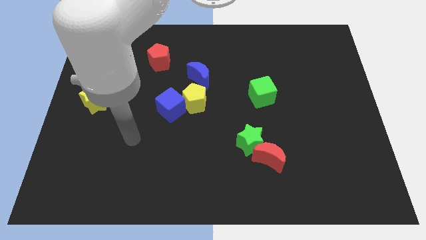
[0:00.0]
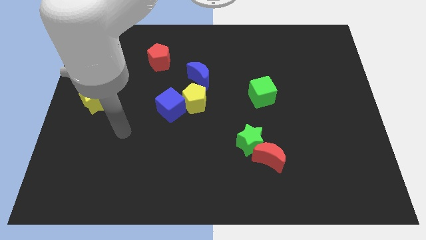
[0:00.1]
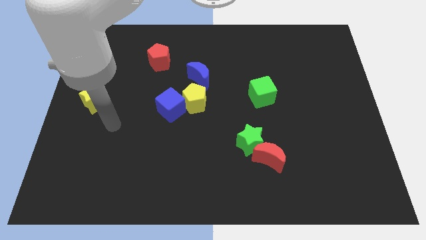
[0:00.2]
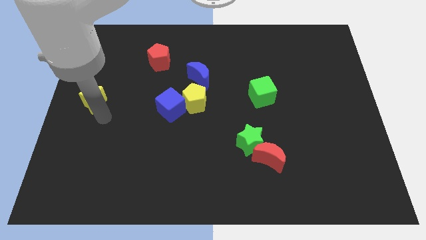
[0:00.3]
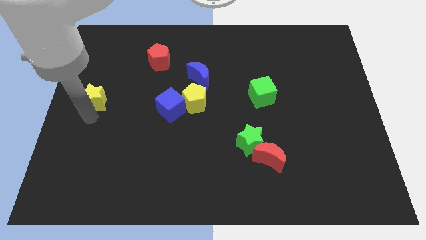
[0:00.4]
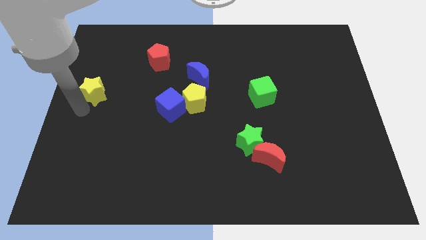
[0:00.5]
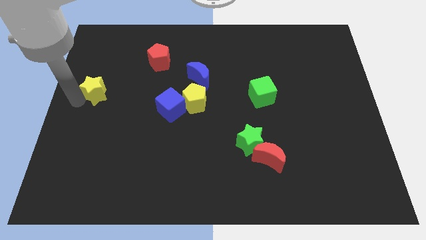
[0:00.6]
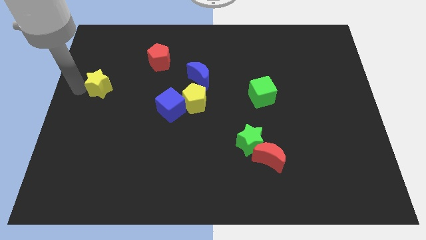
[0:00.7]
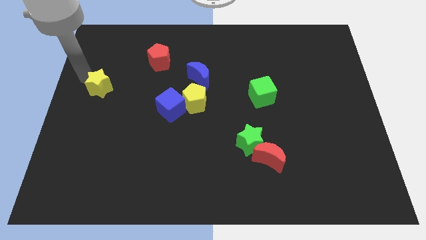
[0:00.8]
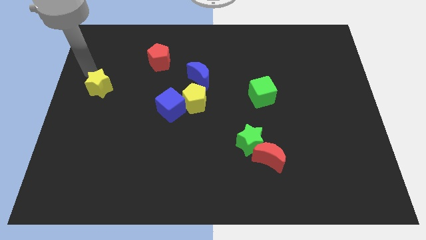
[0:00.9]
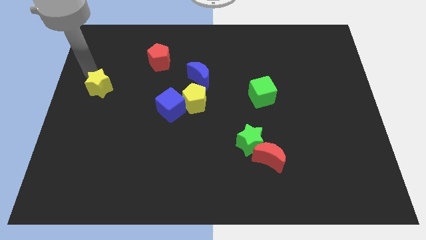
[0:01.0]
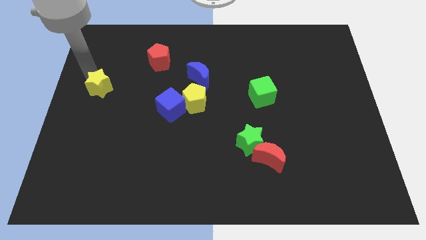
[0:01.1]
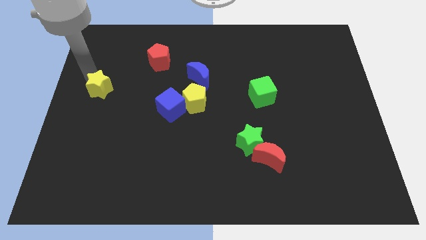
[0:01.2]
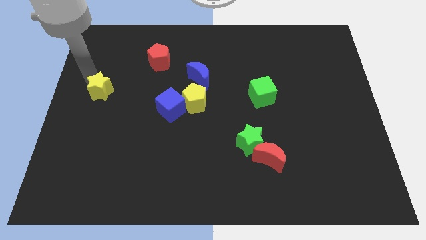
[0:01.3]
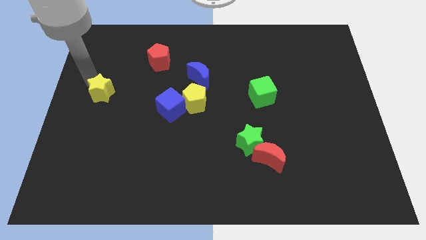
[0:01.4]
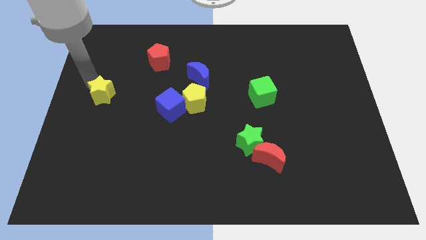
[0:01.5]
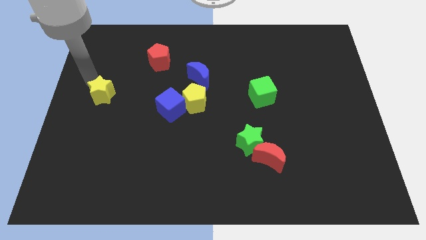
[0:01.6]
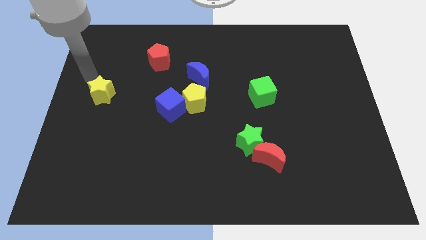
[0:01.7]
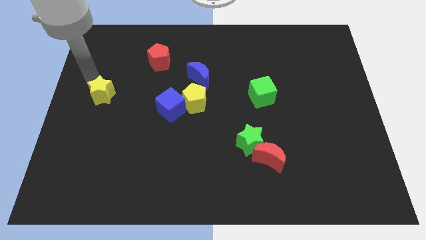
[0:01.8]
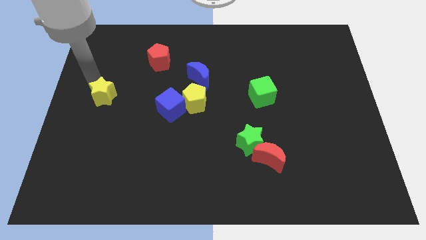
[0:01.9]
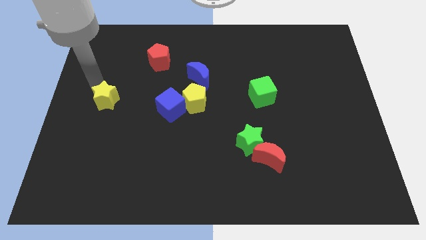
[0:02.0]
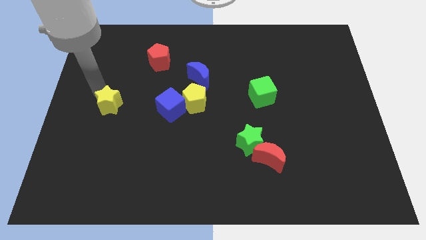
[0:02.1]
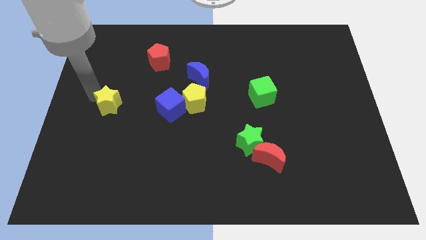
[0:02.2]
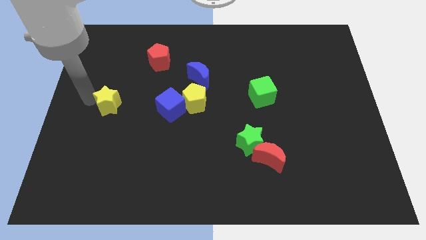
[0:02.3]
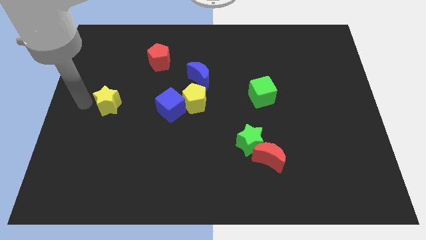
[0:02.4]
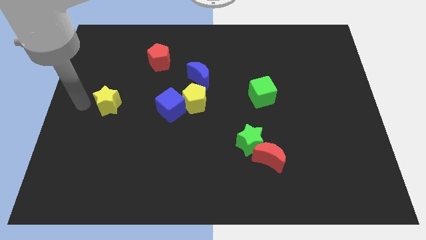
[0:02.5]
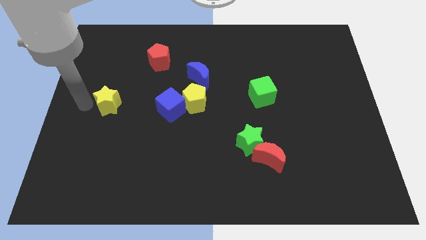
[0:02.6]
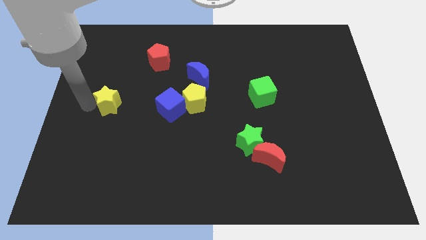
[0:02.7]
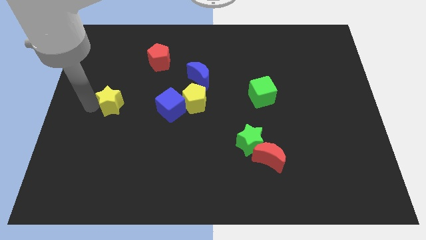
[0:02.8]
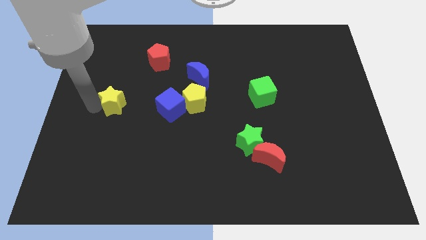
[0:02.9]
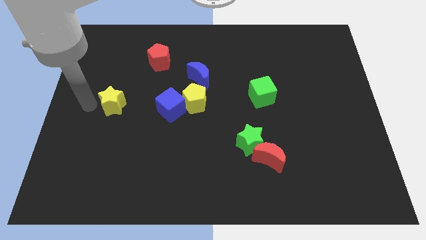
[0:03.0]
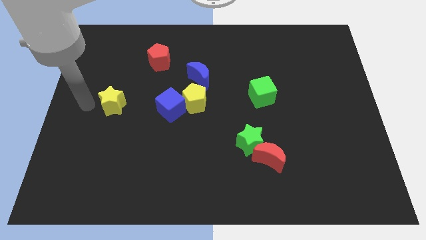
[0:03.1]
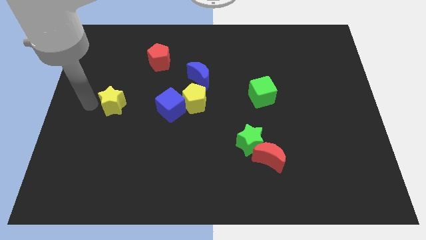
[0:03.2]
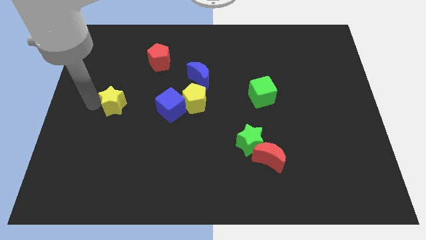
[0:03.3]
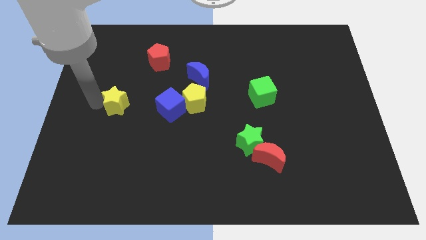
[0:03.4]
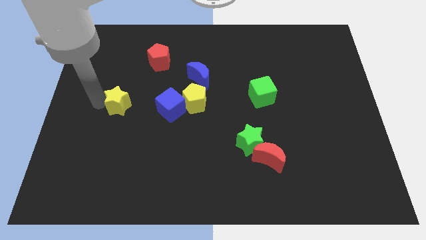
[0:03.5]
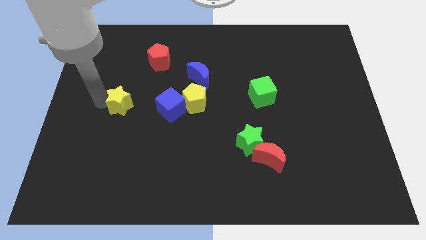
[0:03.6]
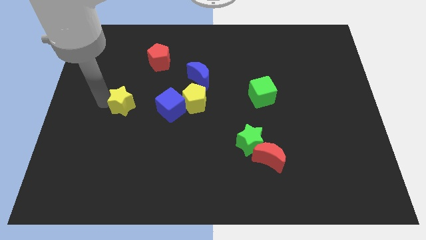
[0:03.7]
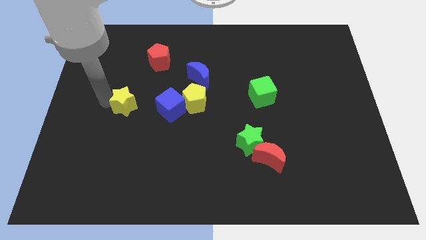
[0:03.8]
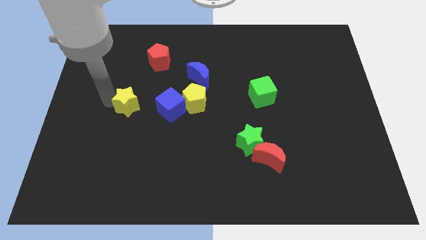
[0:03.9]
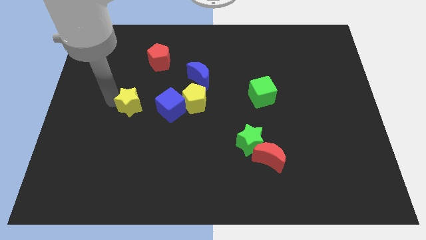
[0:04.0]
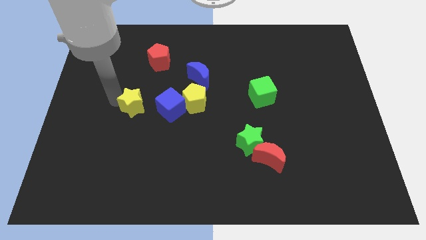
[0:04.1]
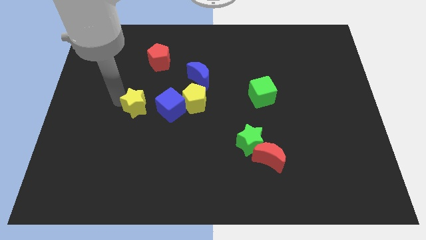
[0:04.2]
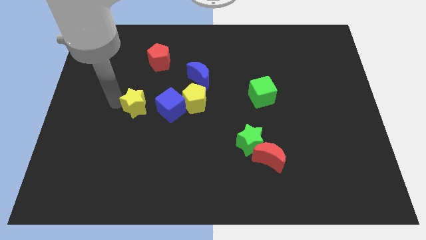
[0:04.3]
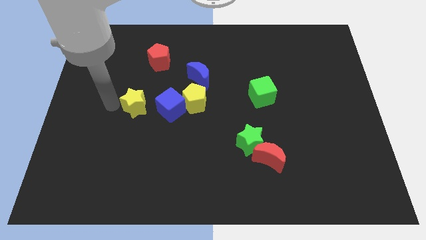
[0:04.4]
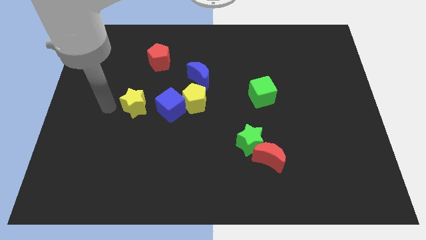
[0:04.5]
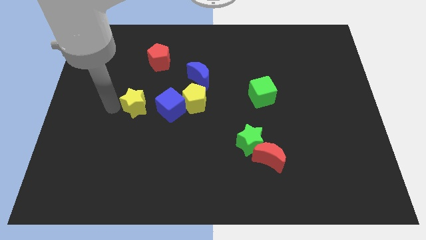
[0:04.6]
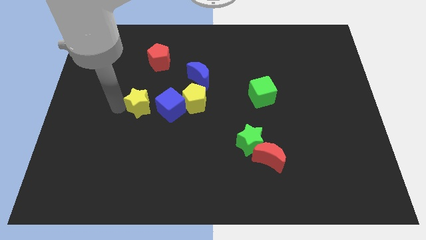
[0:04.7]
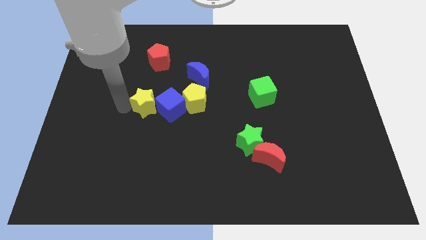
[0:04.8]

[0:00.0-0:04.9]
slide the yellow star to the blue cube

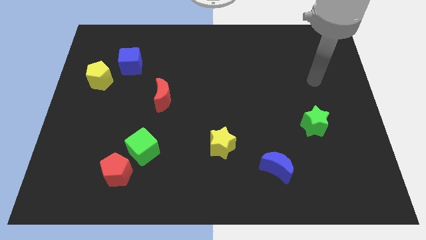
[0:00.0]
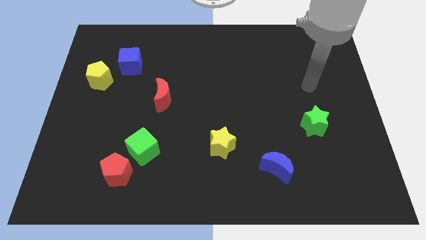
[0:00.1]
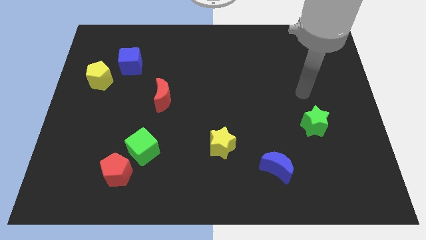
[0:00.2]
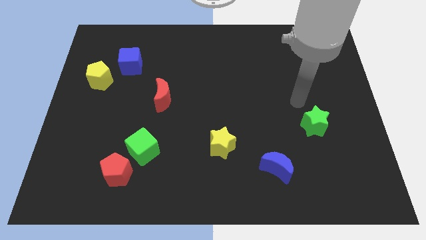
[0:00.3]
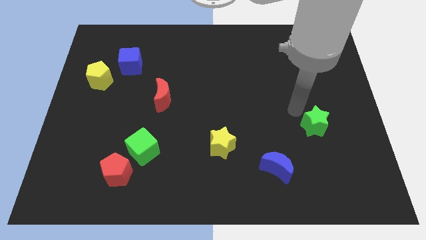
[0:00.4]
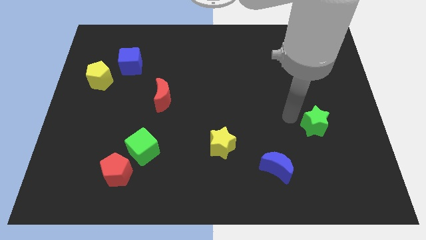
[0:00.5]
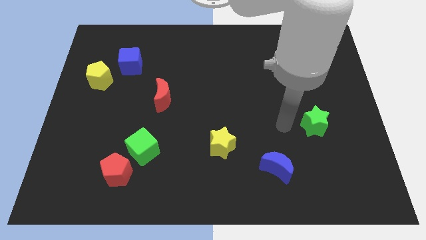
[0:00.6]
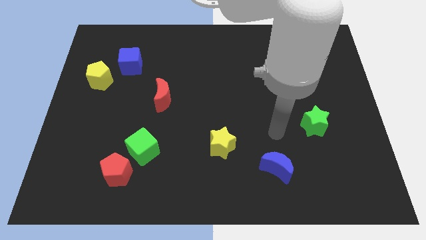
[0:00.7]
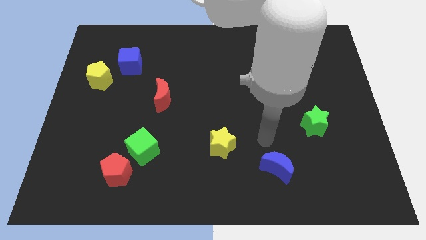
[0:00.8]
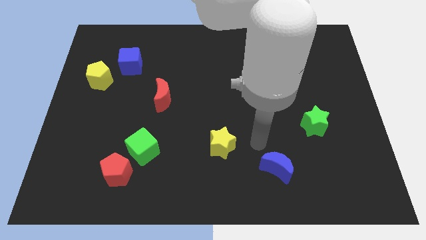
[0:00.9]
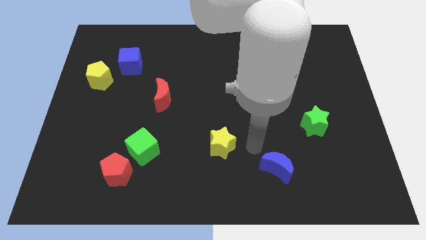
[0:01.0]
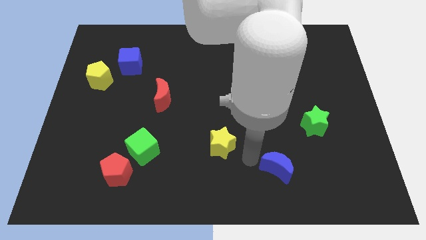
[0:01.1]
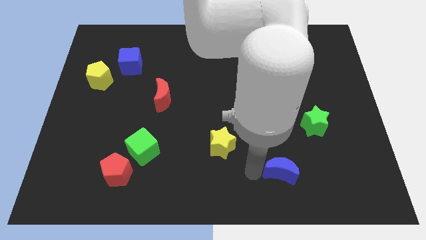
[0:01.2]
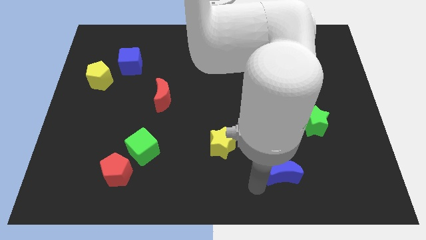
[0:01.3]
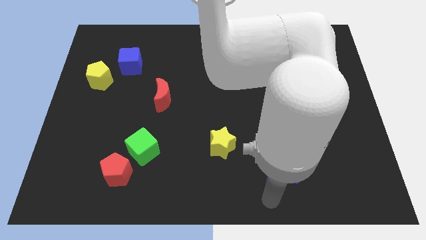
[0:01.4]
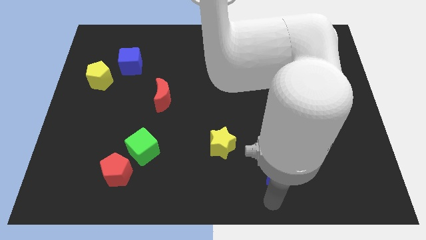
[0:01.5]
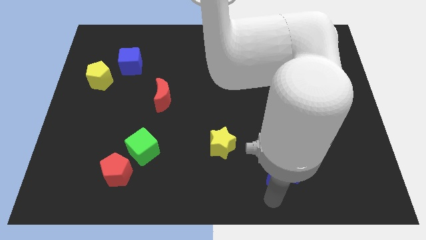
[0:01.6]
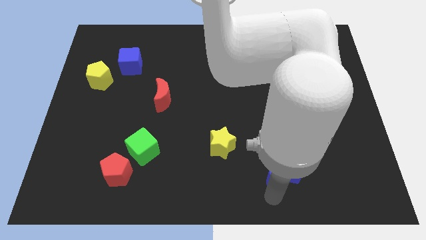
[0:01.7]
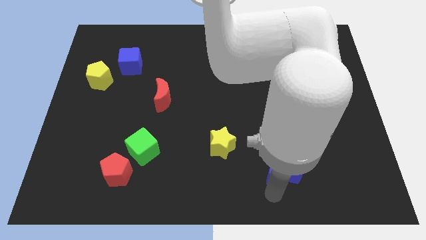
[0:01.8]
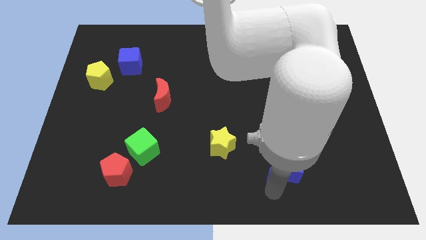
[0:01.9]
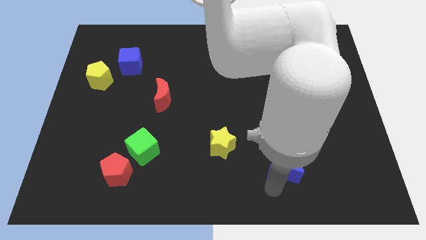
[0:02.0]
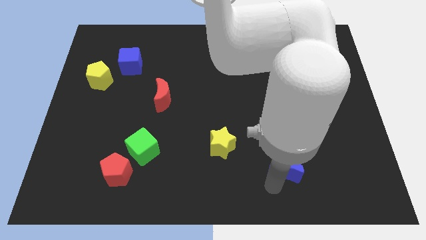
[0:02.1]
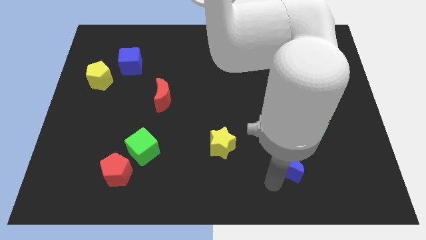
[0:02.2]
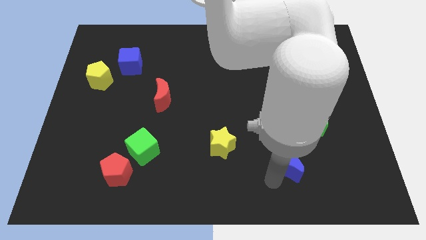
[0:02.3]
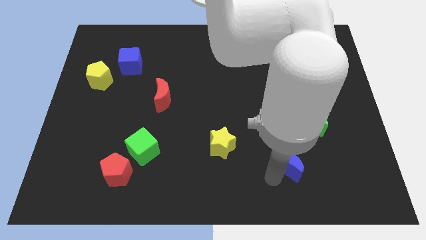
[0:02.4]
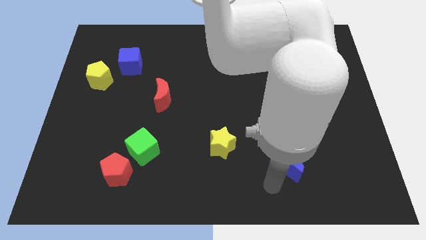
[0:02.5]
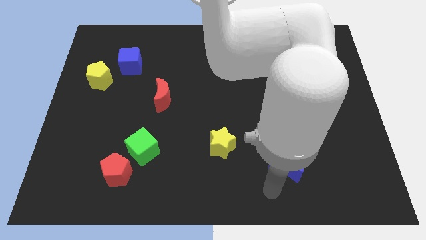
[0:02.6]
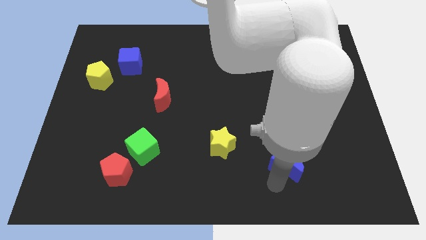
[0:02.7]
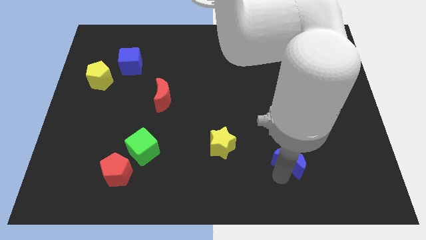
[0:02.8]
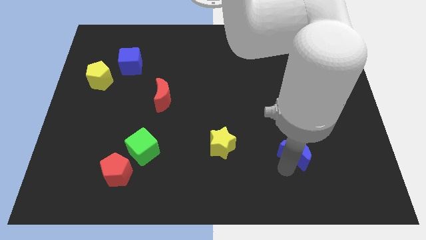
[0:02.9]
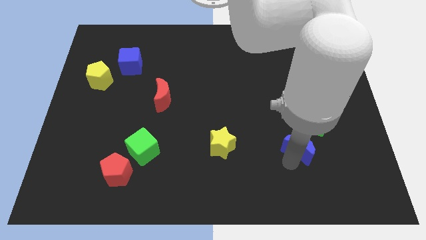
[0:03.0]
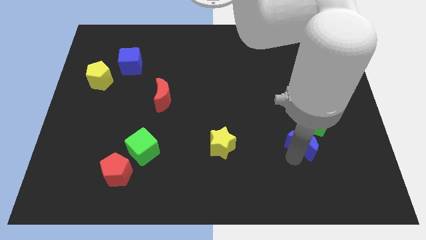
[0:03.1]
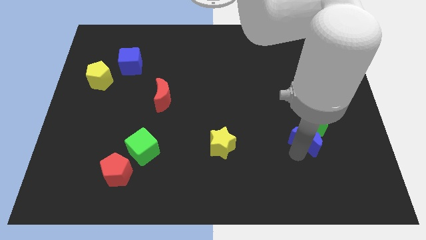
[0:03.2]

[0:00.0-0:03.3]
push the blue moon to the green star
